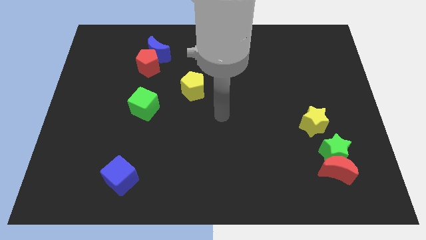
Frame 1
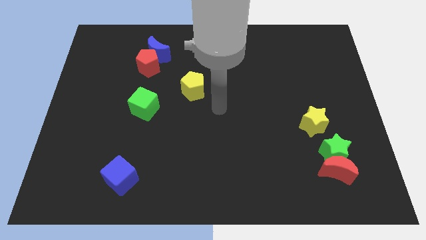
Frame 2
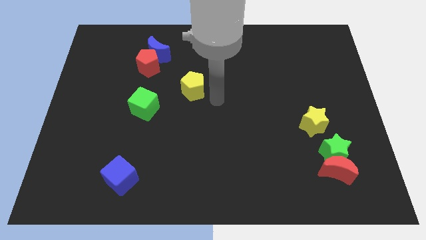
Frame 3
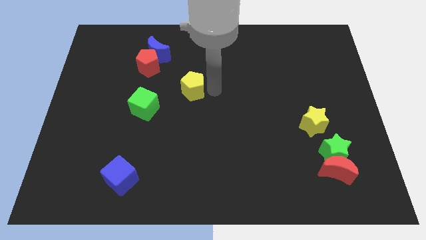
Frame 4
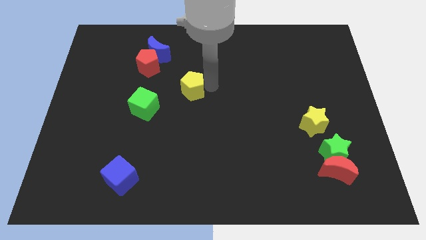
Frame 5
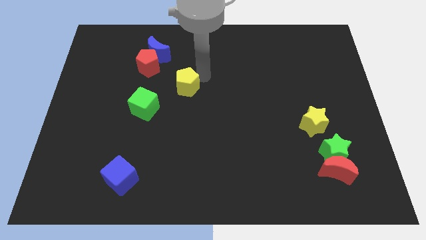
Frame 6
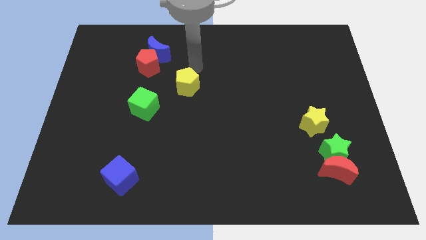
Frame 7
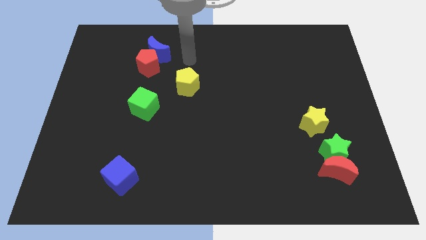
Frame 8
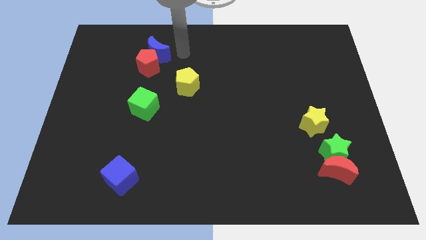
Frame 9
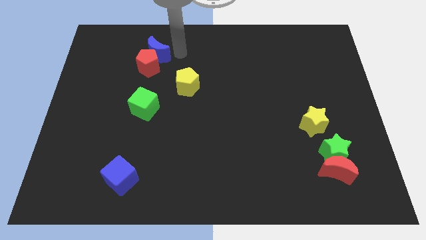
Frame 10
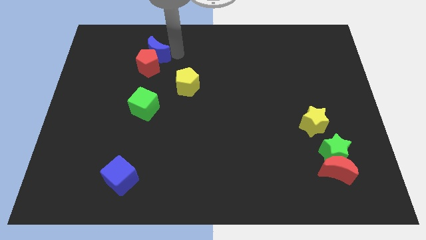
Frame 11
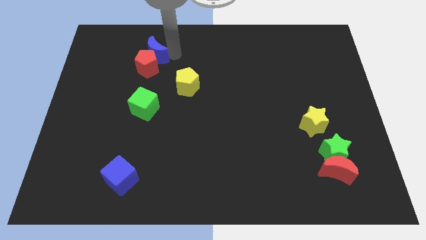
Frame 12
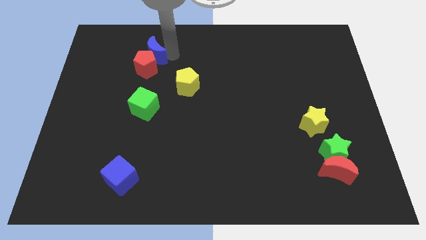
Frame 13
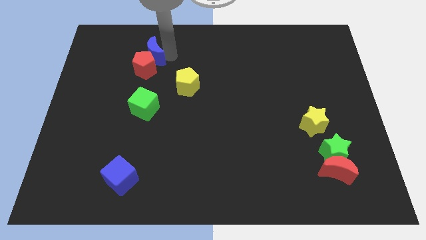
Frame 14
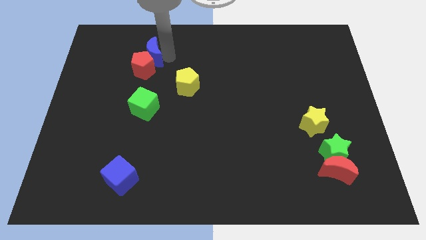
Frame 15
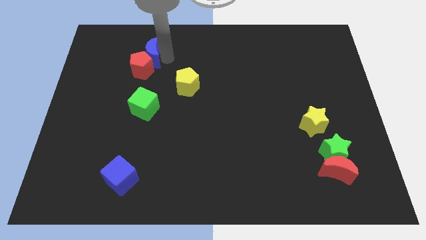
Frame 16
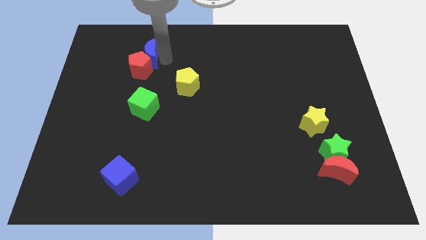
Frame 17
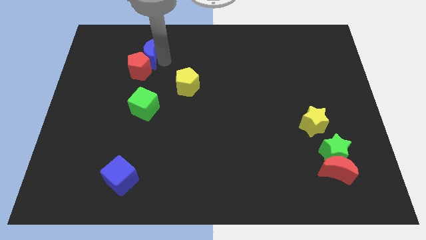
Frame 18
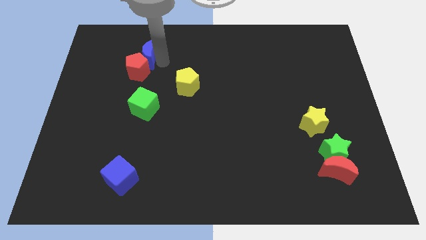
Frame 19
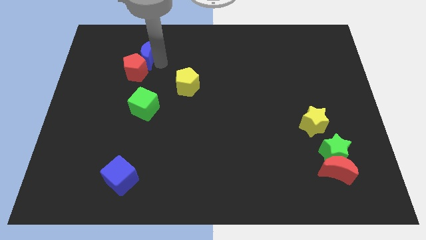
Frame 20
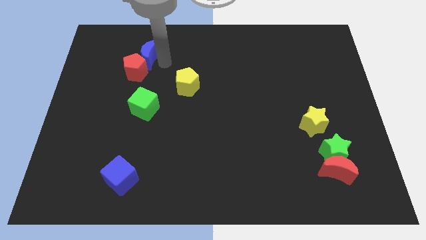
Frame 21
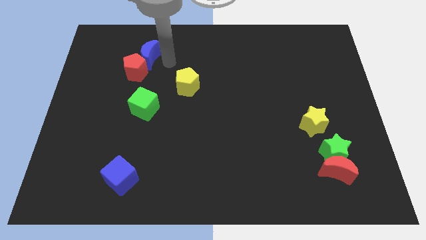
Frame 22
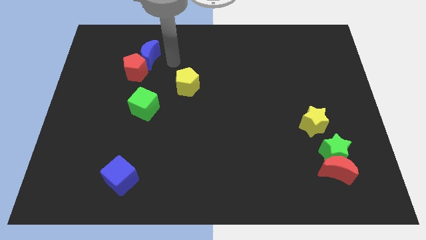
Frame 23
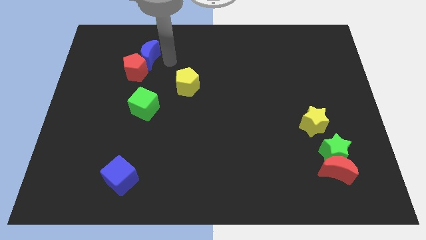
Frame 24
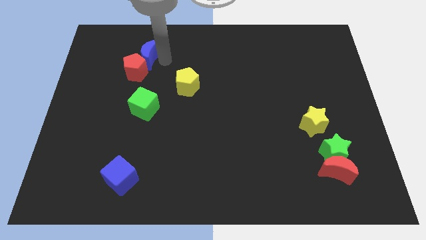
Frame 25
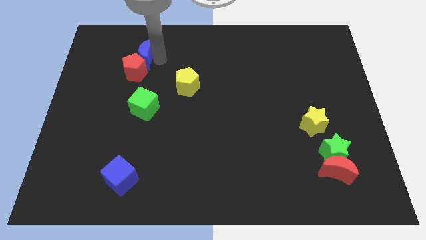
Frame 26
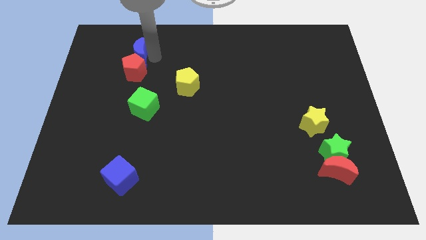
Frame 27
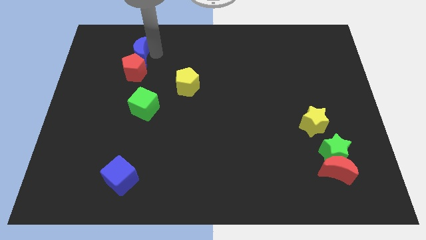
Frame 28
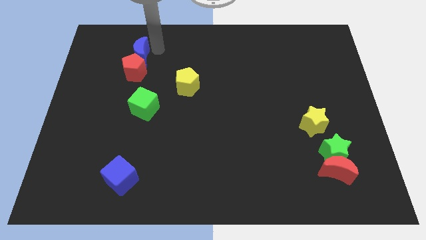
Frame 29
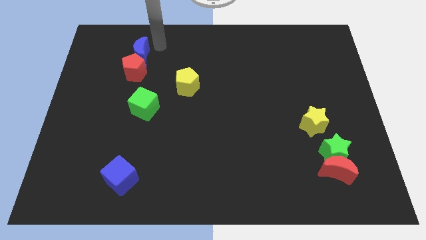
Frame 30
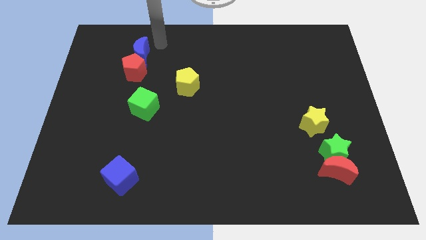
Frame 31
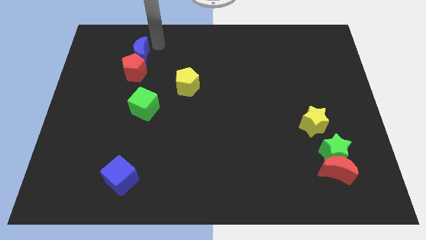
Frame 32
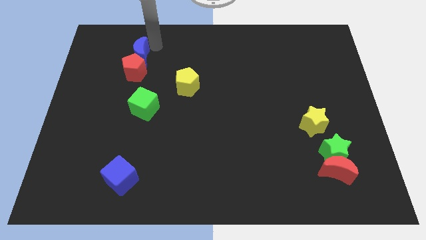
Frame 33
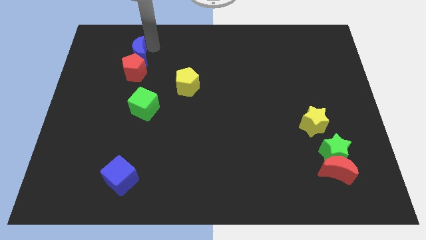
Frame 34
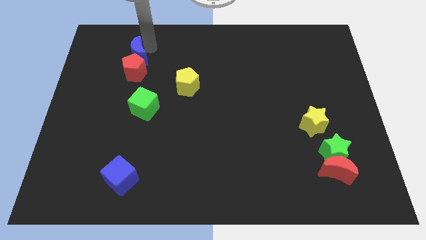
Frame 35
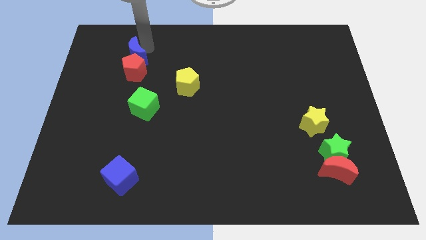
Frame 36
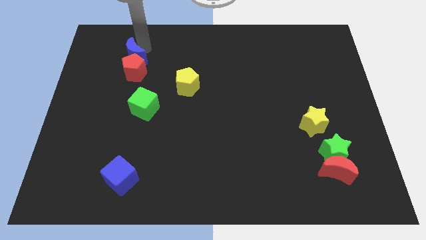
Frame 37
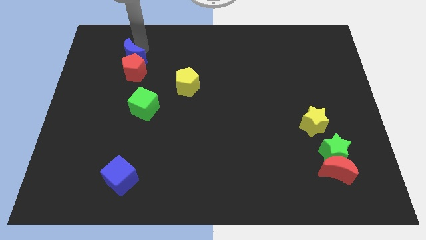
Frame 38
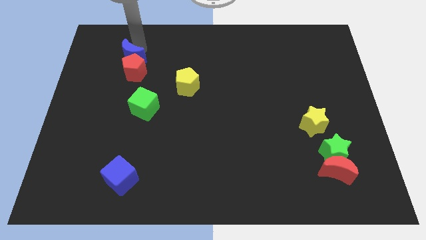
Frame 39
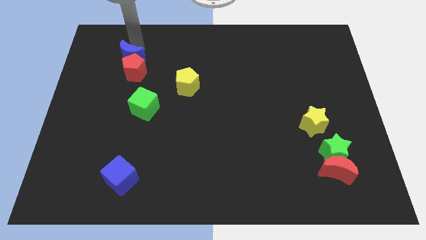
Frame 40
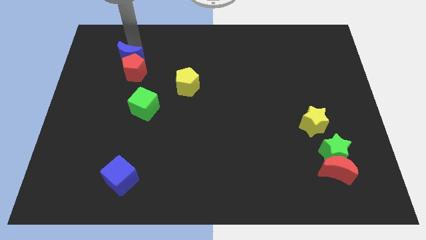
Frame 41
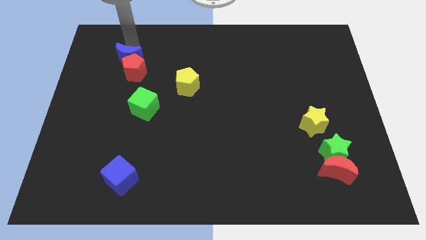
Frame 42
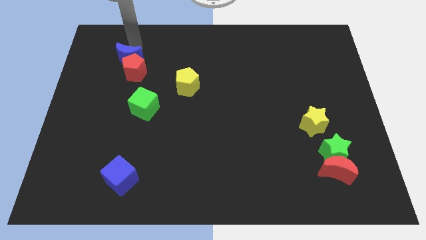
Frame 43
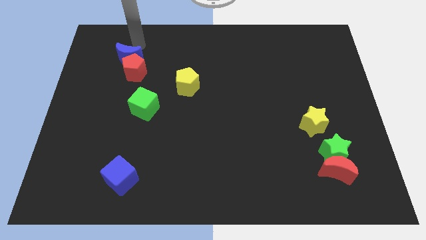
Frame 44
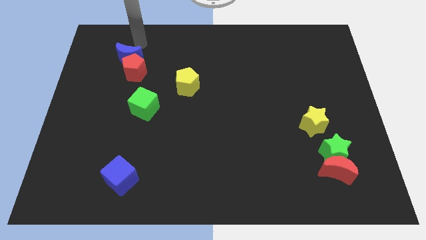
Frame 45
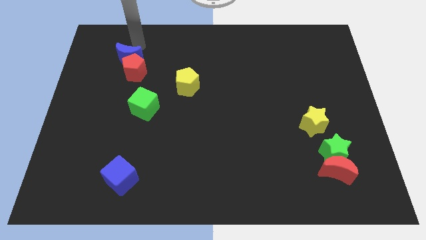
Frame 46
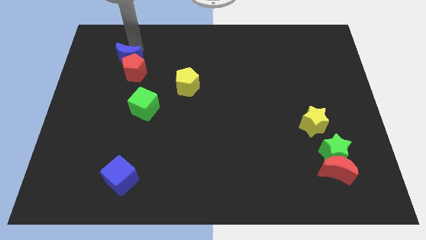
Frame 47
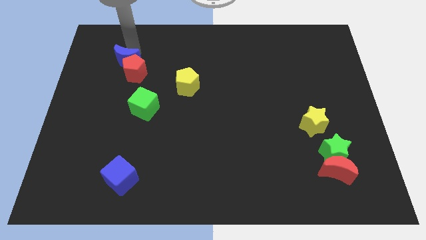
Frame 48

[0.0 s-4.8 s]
slide the blue moon somewhat diagonally down and to the left

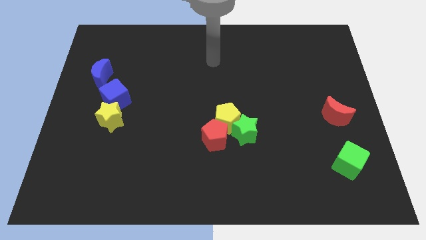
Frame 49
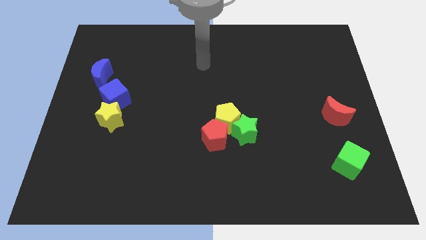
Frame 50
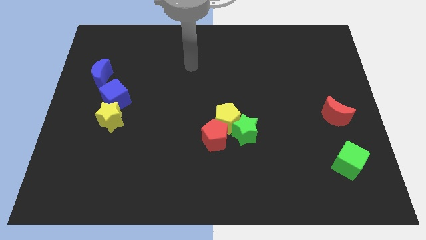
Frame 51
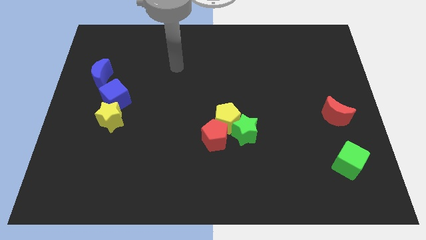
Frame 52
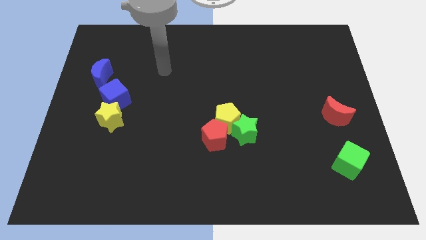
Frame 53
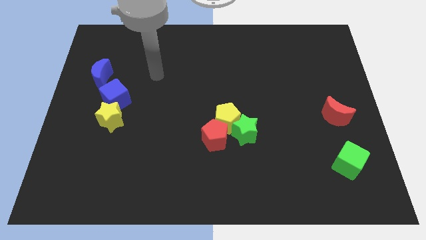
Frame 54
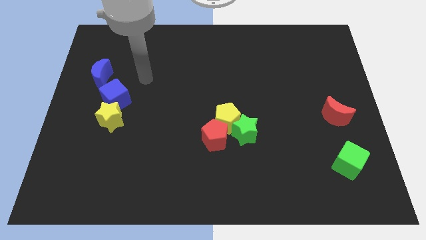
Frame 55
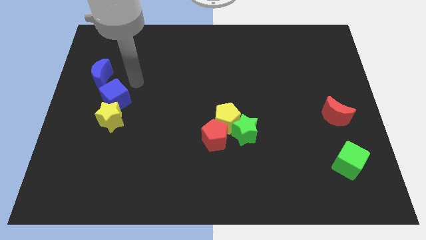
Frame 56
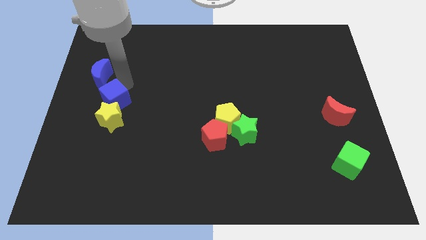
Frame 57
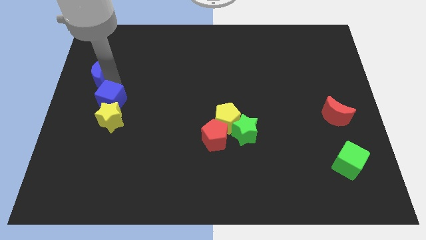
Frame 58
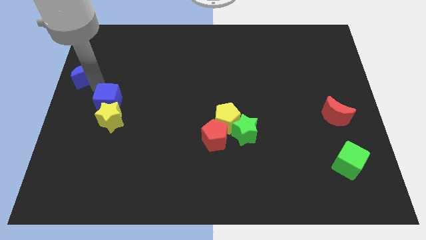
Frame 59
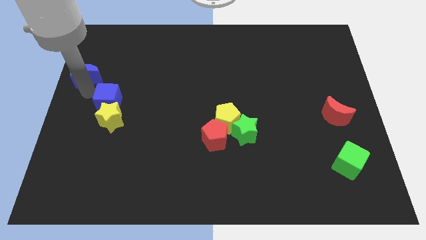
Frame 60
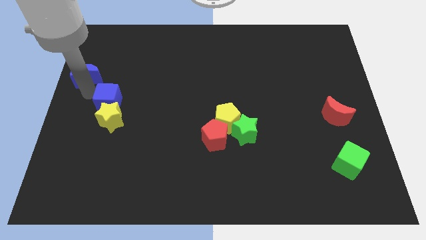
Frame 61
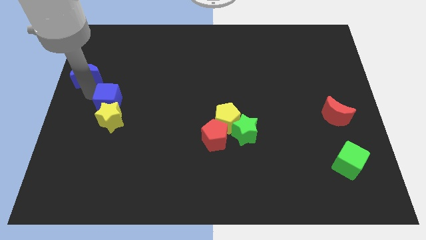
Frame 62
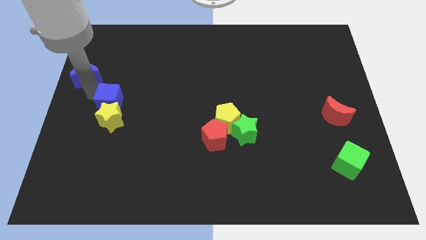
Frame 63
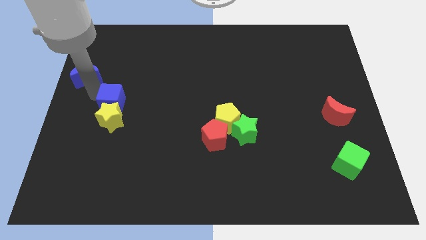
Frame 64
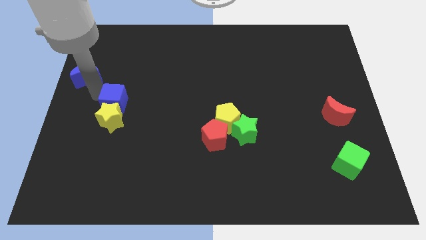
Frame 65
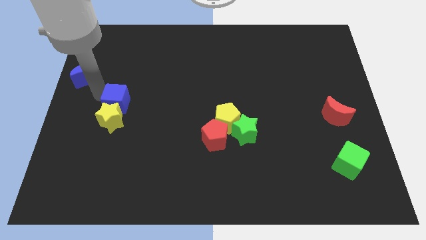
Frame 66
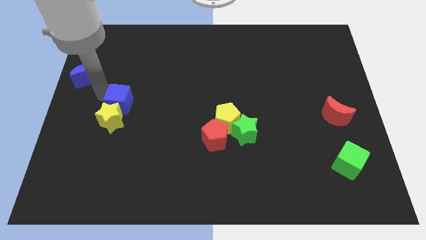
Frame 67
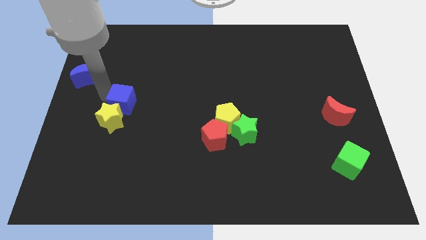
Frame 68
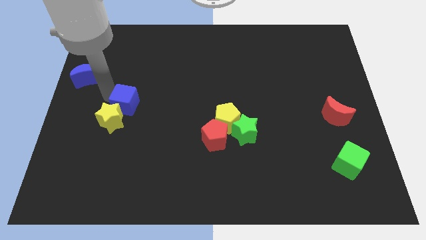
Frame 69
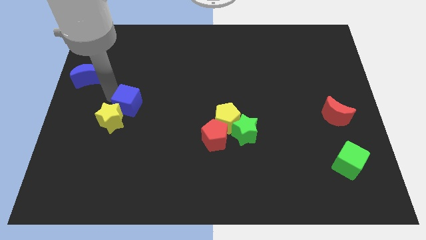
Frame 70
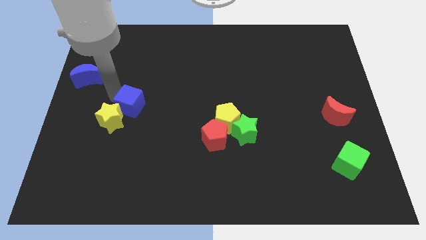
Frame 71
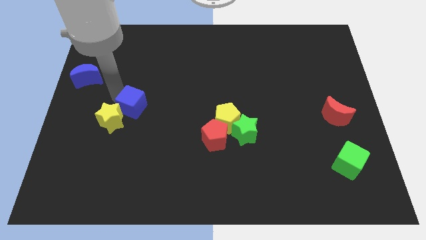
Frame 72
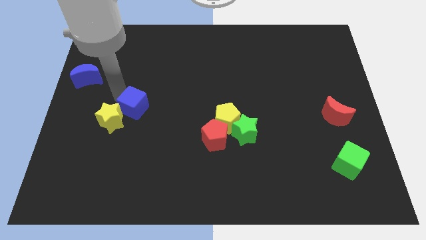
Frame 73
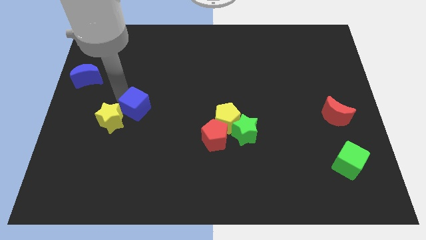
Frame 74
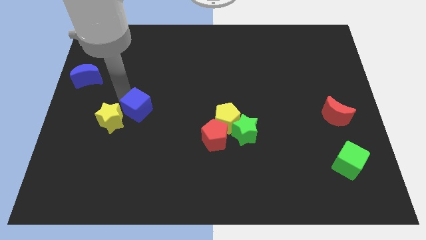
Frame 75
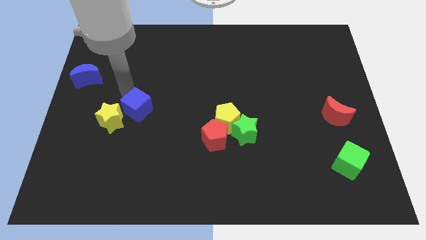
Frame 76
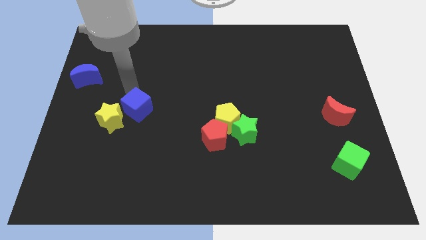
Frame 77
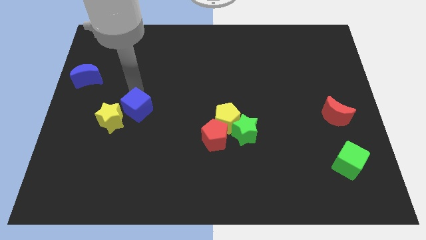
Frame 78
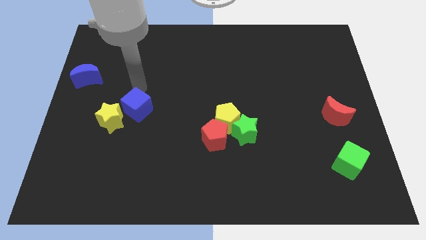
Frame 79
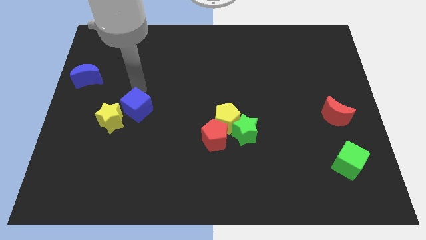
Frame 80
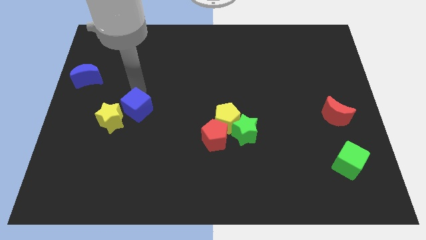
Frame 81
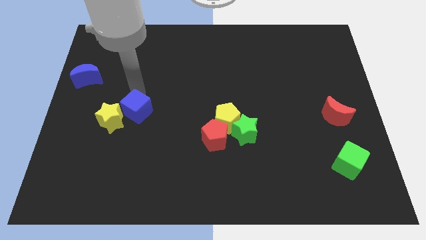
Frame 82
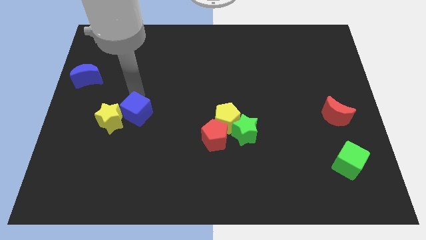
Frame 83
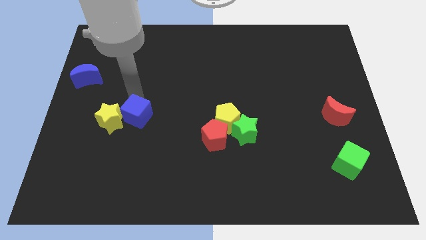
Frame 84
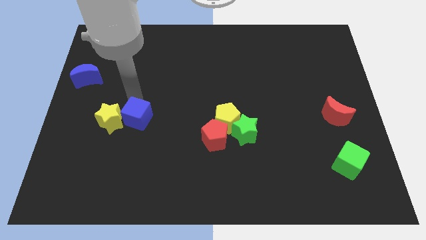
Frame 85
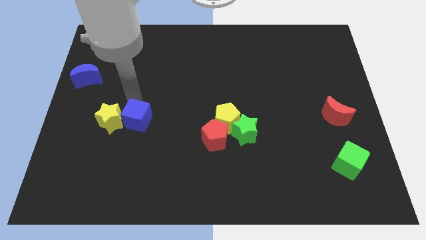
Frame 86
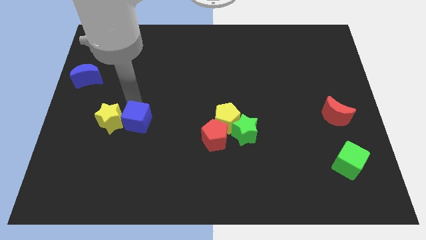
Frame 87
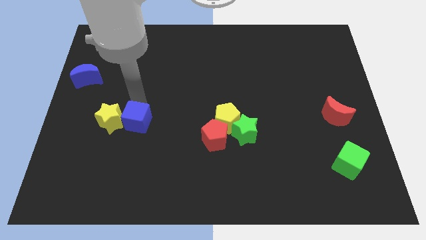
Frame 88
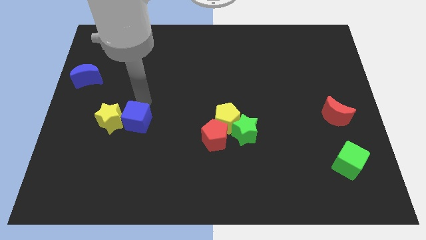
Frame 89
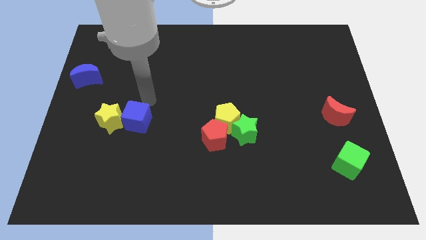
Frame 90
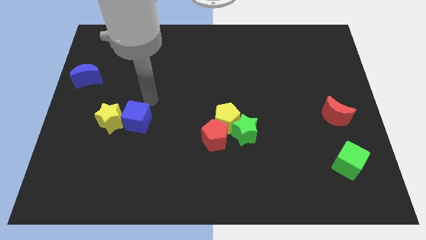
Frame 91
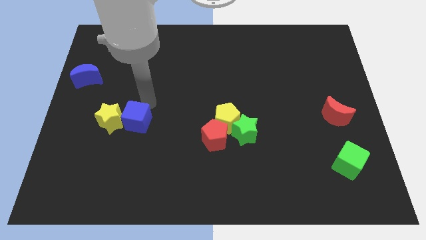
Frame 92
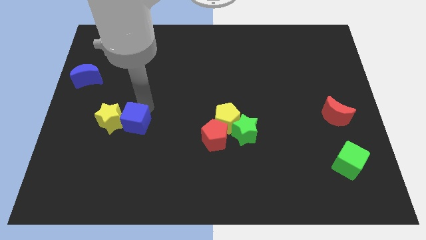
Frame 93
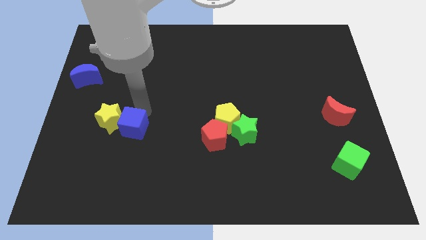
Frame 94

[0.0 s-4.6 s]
push the blue cube a bit down
